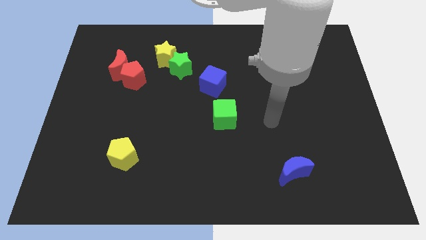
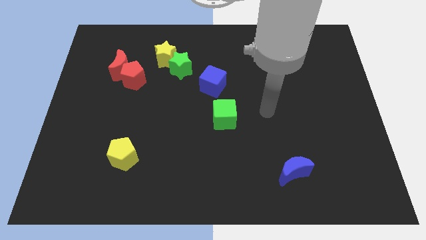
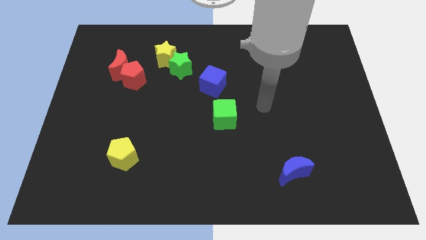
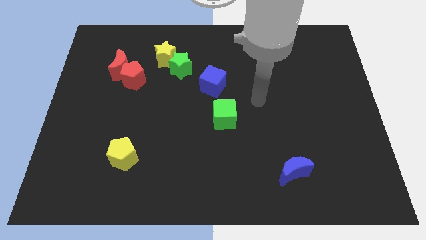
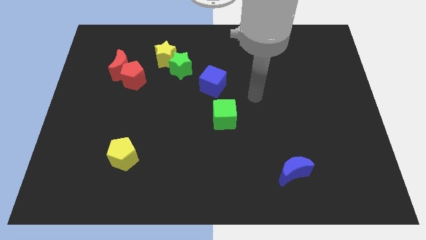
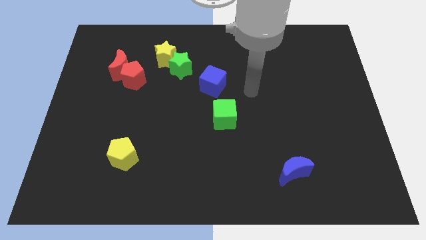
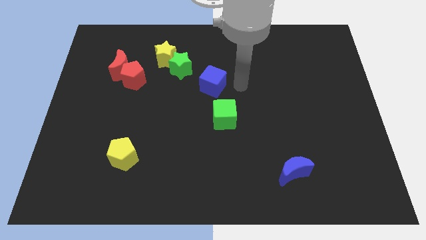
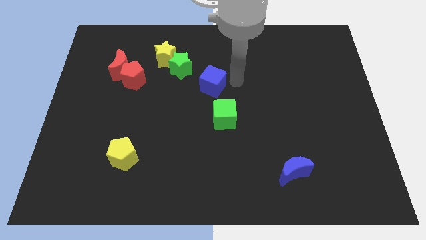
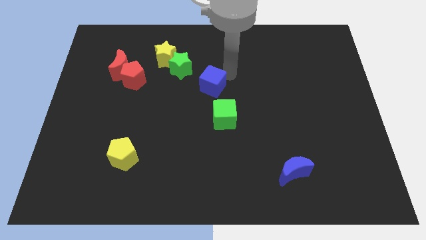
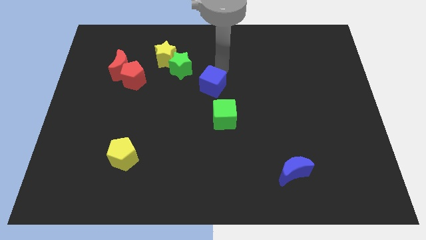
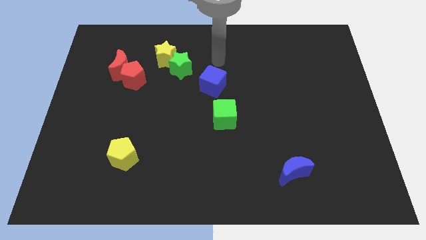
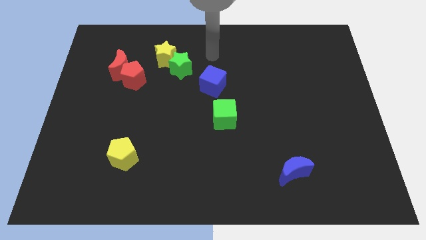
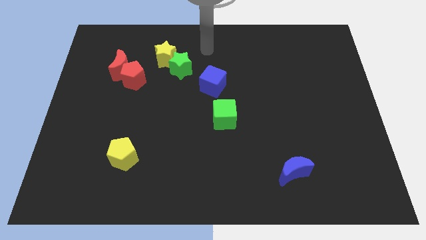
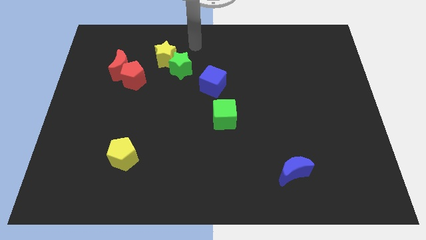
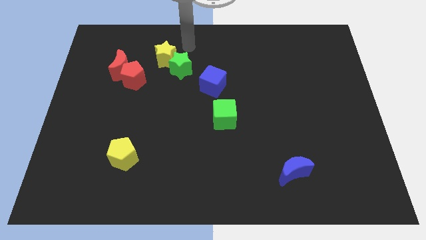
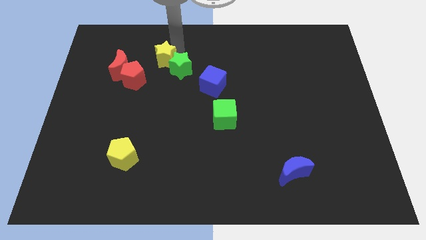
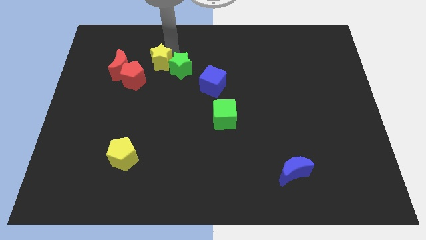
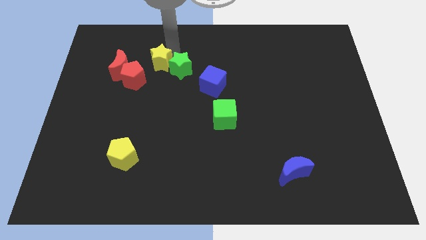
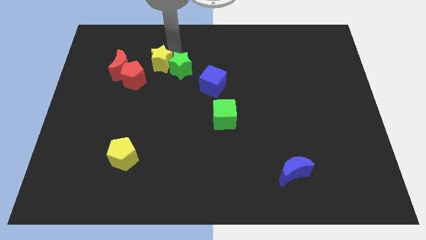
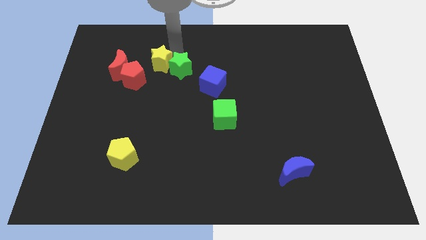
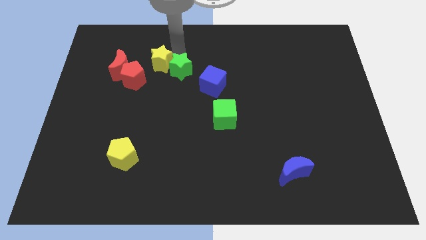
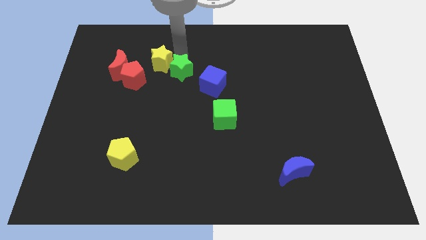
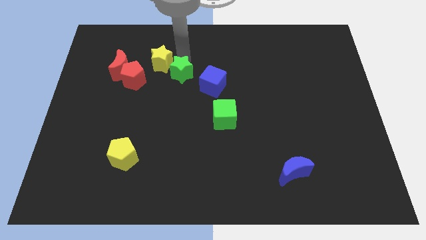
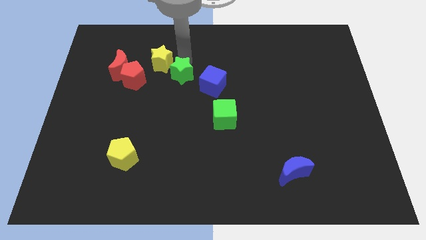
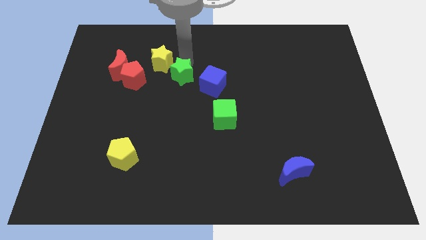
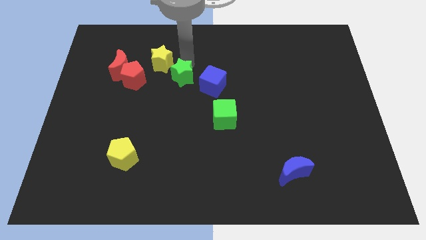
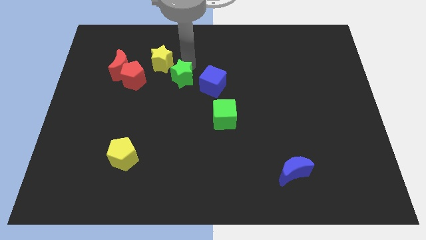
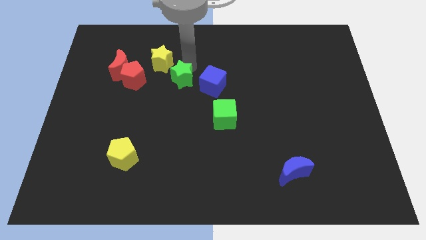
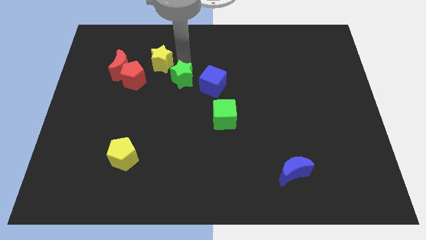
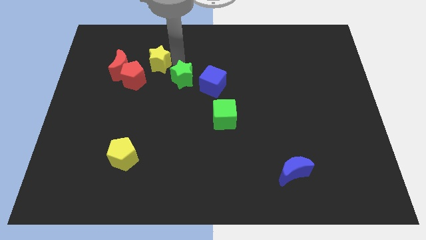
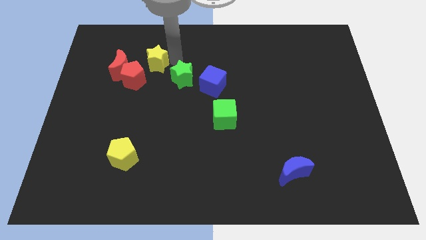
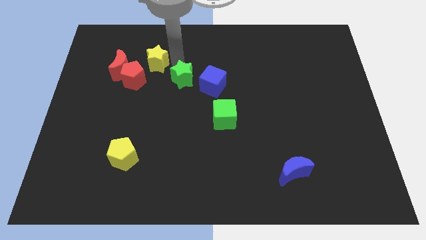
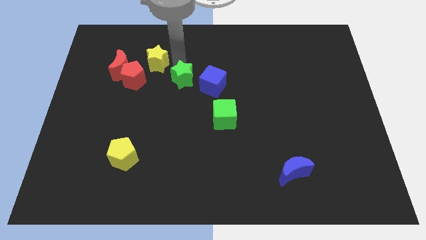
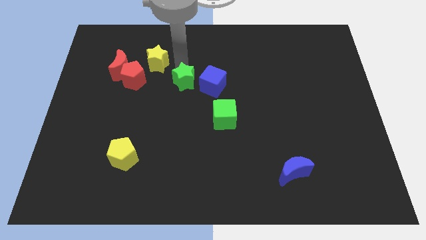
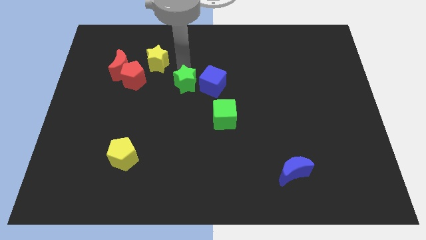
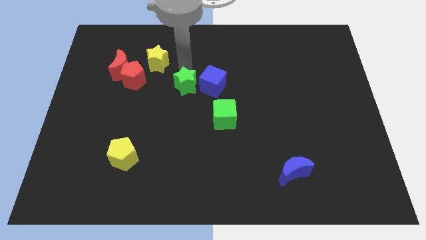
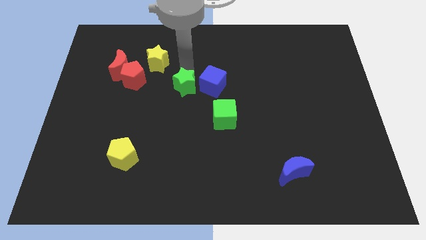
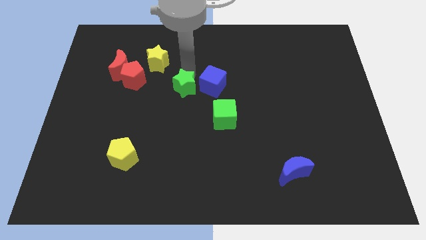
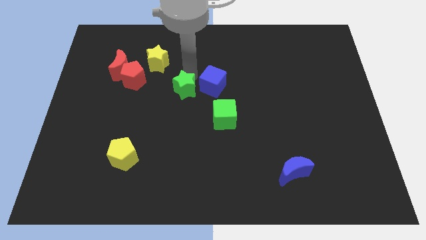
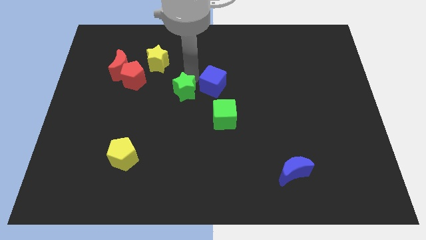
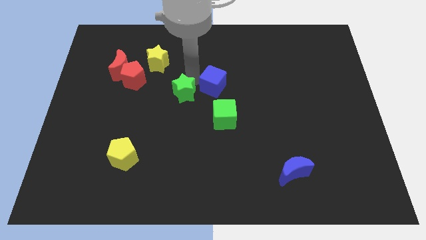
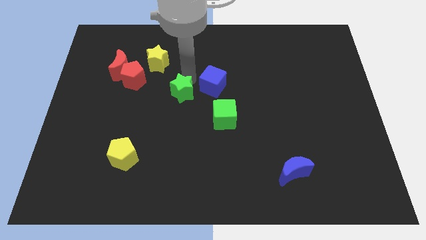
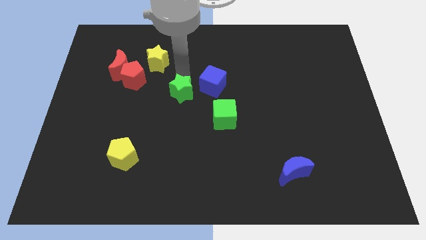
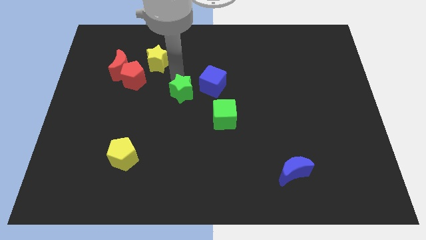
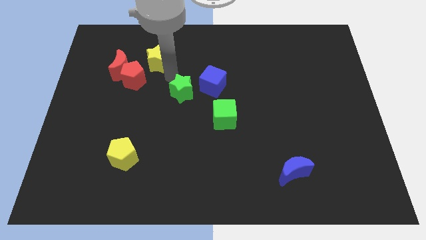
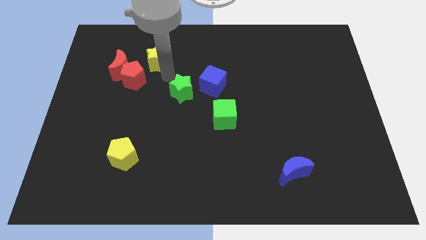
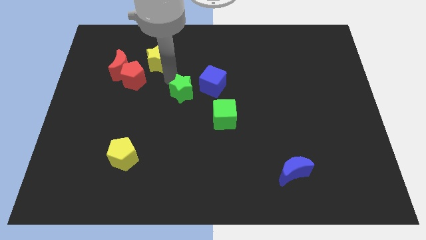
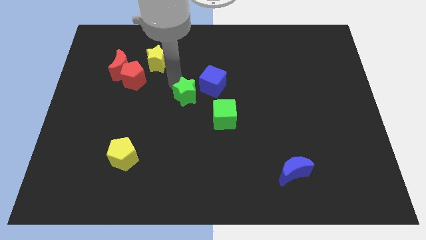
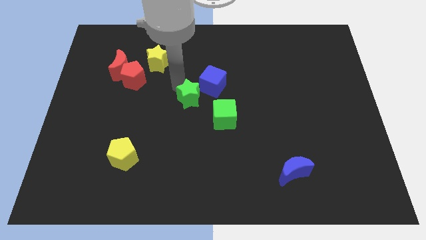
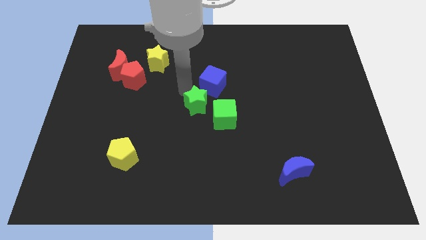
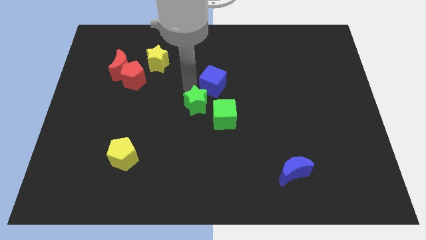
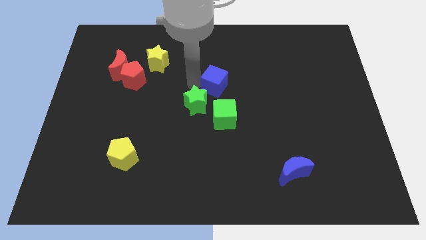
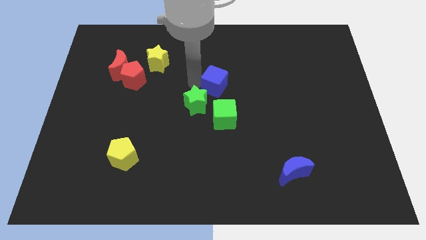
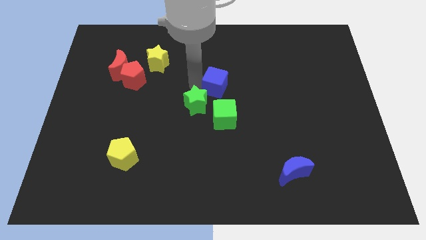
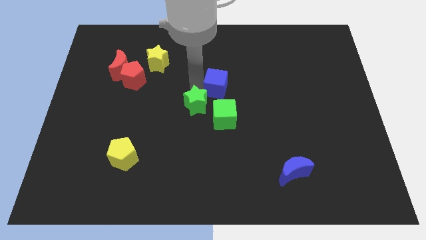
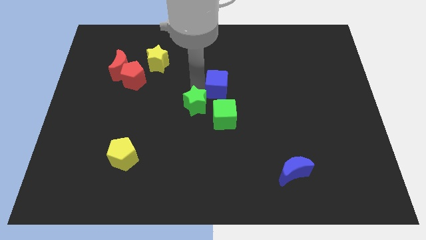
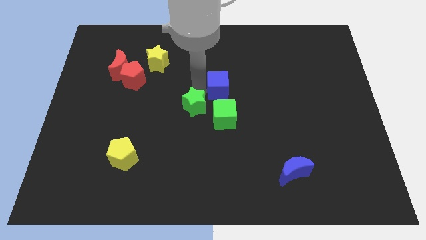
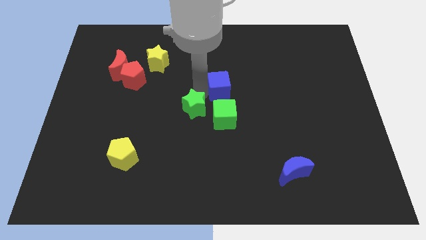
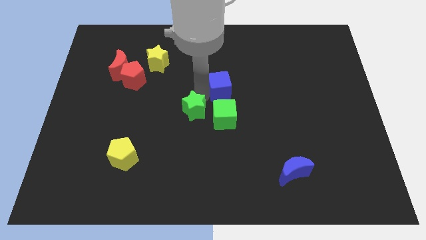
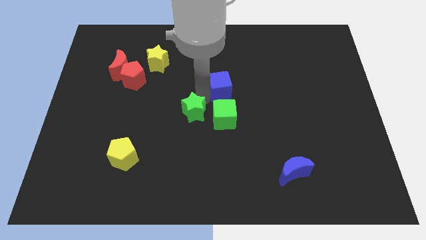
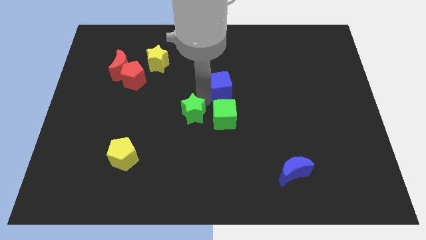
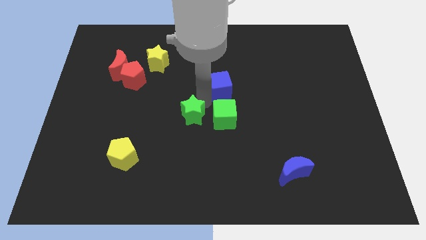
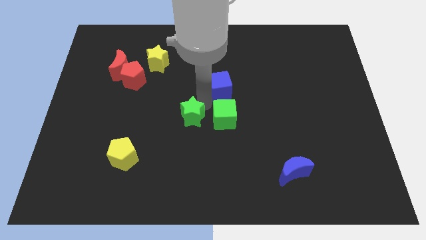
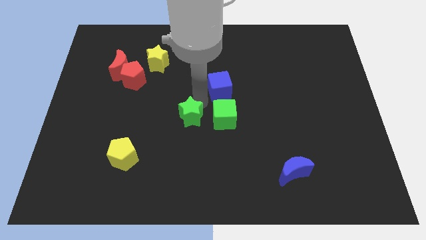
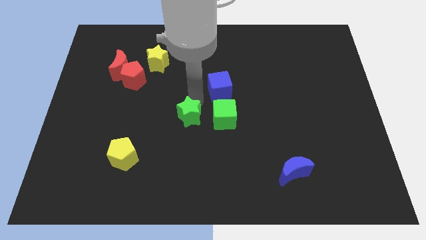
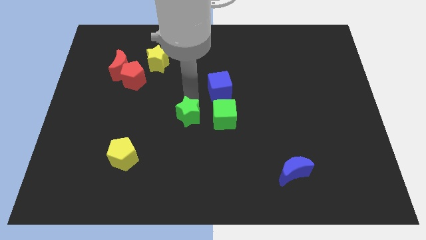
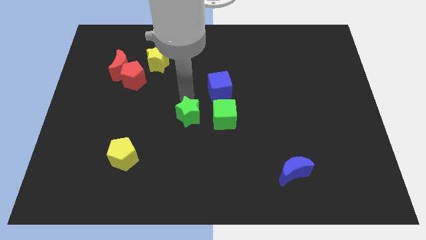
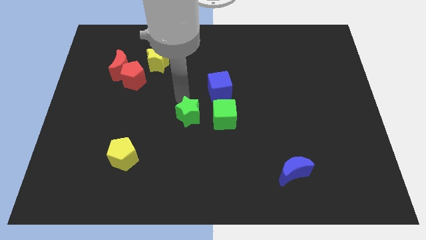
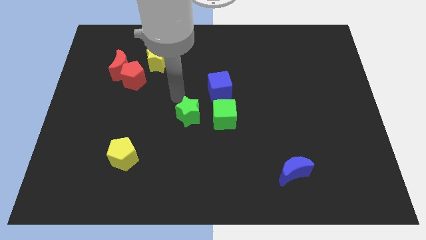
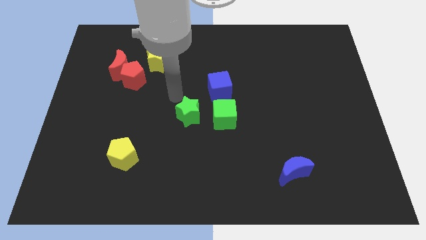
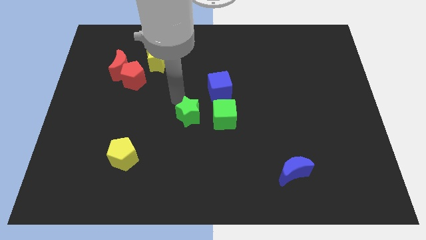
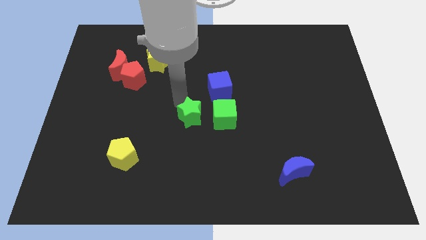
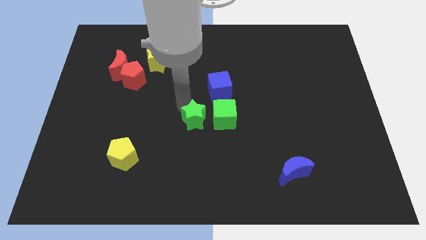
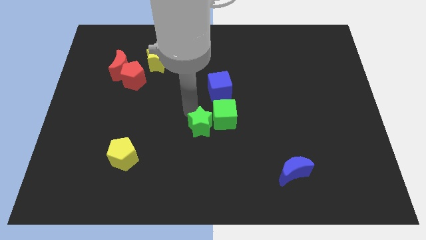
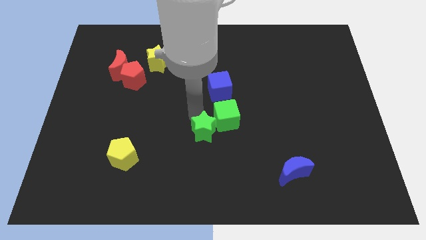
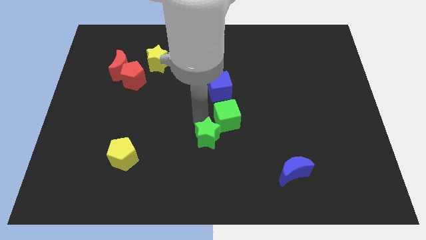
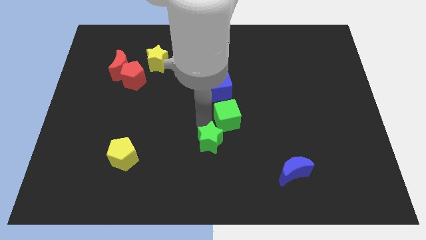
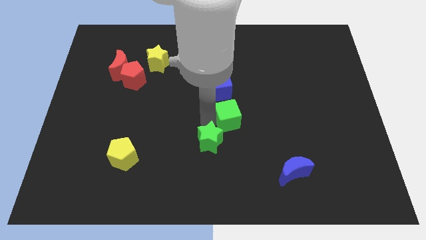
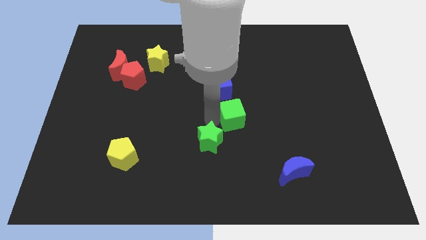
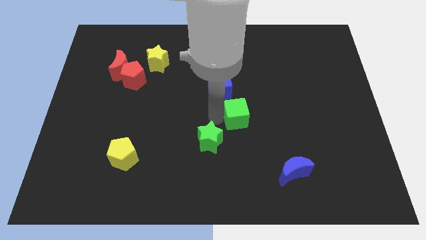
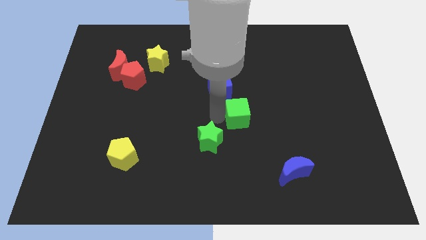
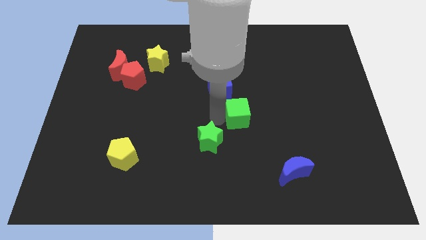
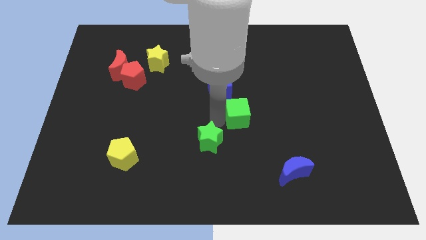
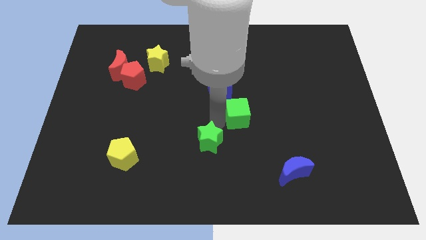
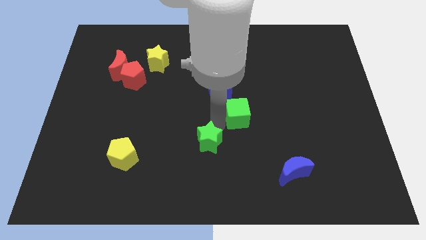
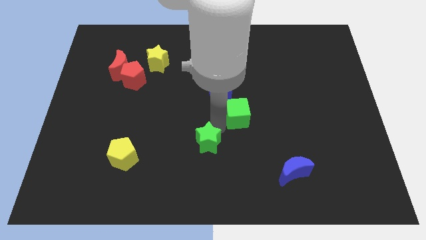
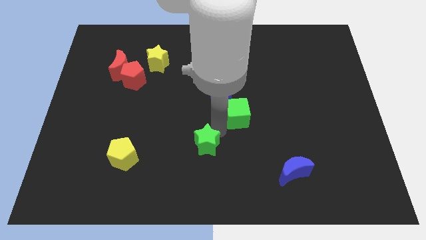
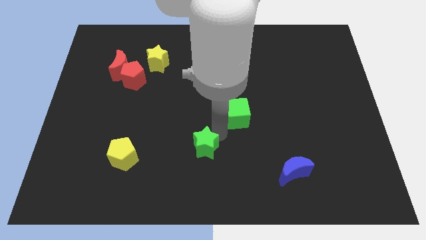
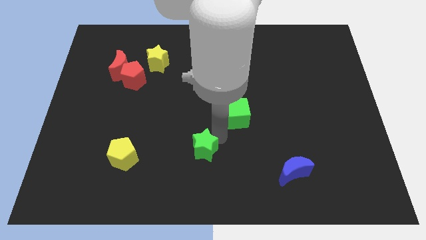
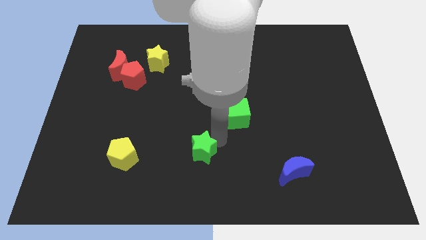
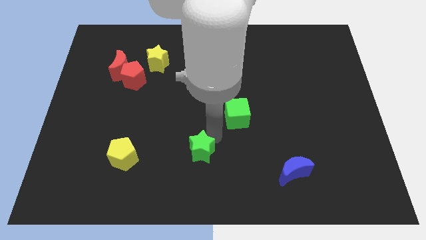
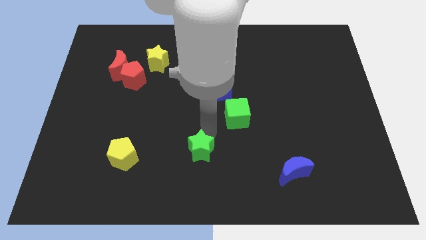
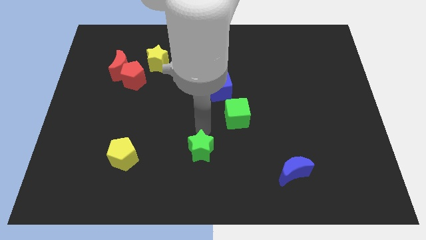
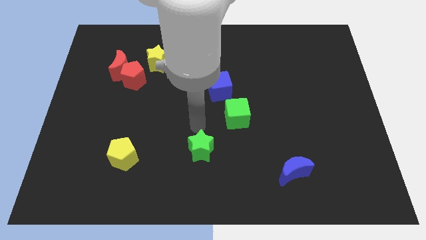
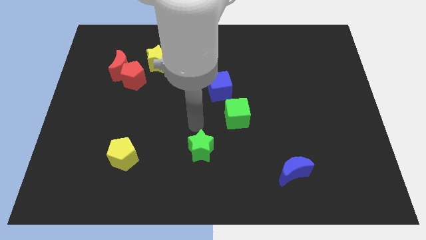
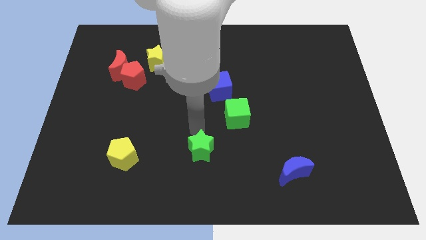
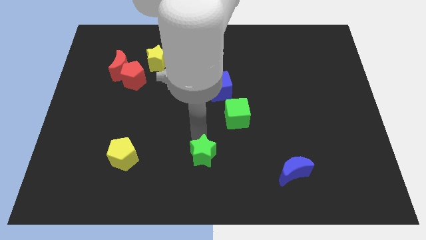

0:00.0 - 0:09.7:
slide the green star to the bottom
